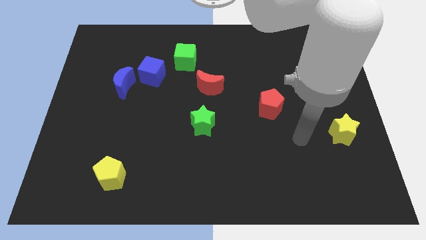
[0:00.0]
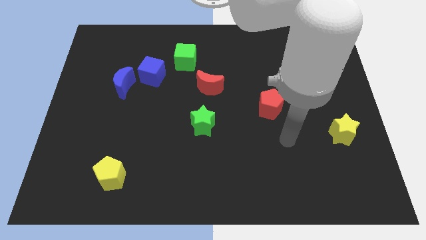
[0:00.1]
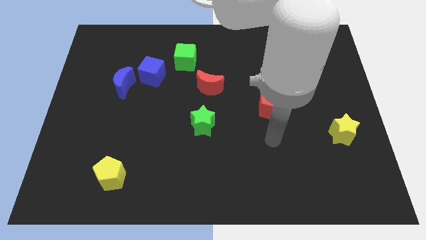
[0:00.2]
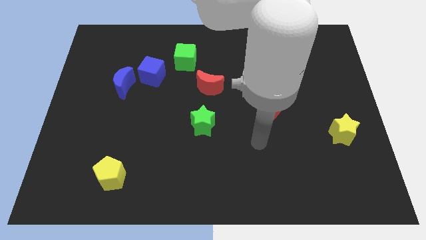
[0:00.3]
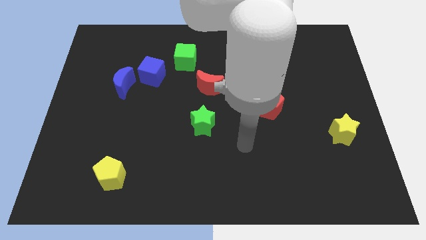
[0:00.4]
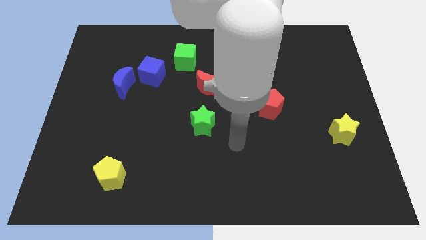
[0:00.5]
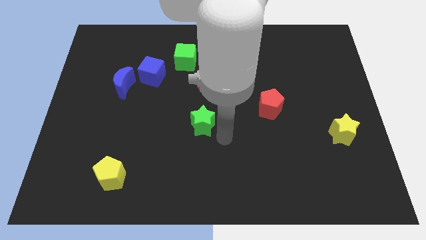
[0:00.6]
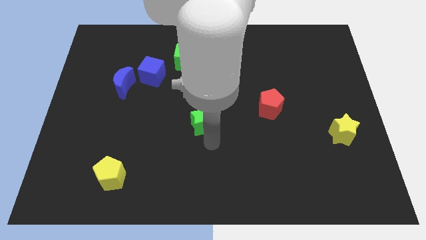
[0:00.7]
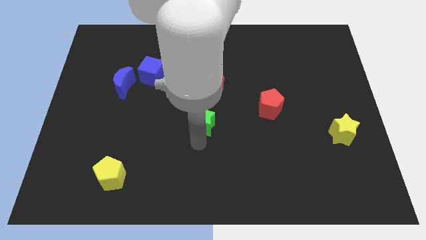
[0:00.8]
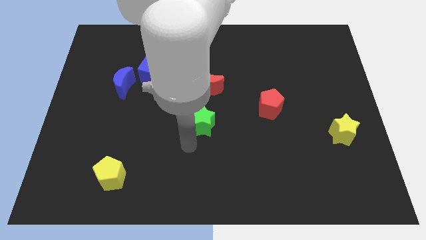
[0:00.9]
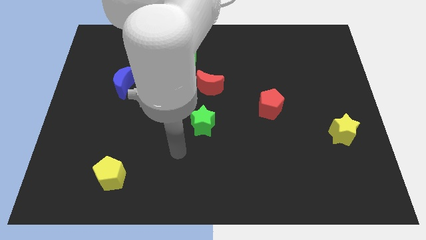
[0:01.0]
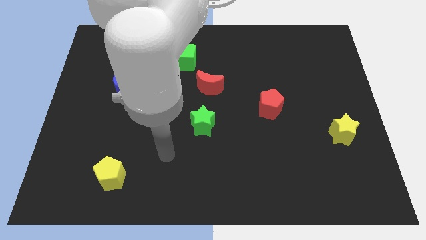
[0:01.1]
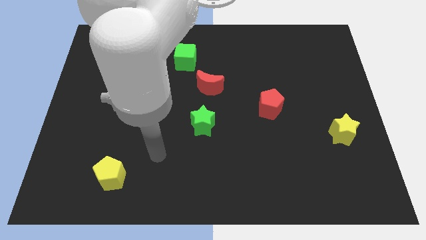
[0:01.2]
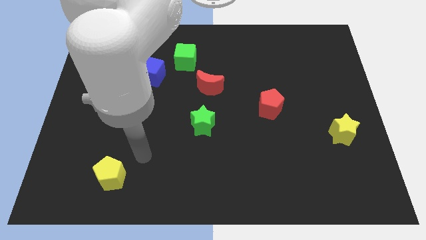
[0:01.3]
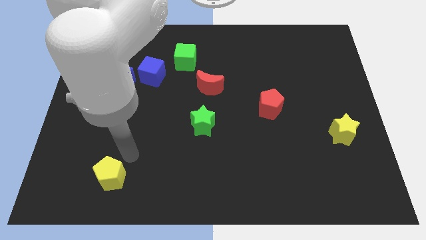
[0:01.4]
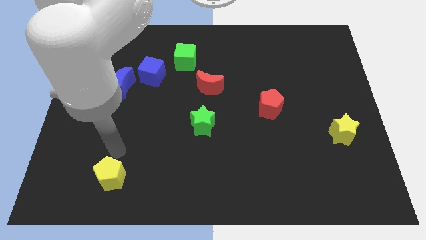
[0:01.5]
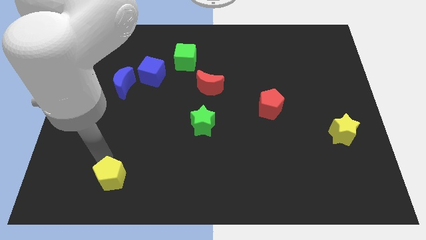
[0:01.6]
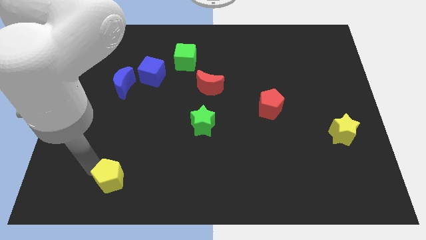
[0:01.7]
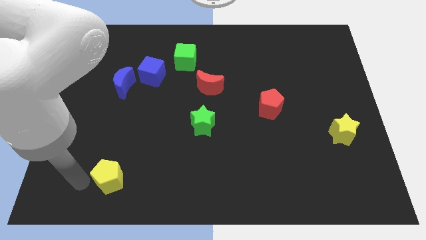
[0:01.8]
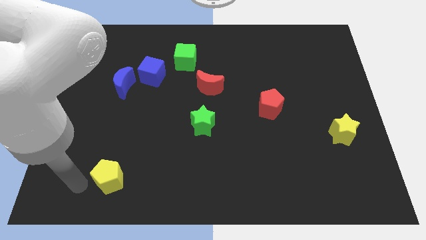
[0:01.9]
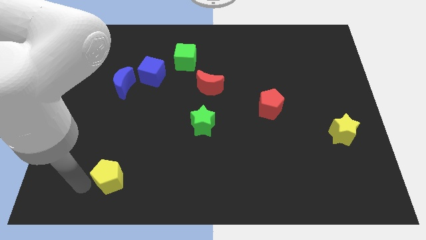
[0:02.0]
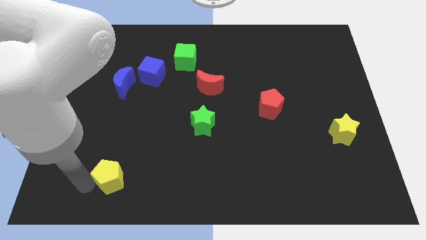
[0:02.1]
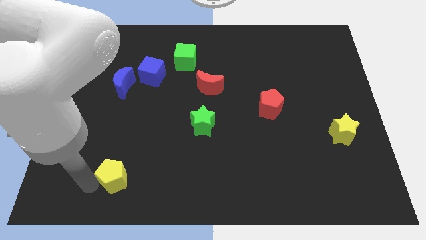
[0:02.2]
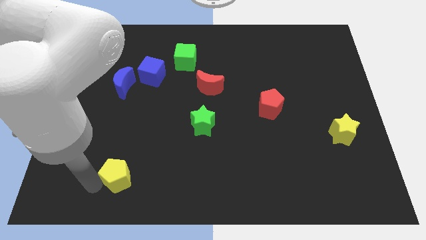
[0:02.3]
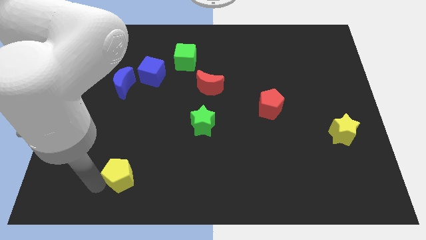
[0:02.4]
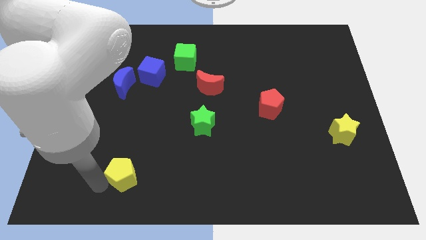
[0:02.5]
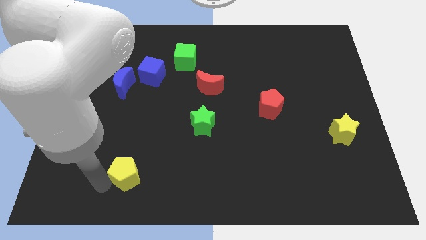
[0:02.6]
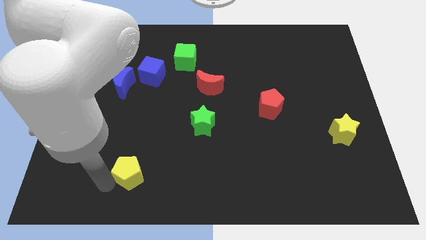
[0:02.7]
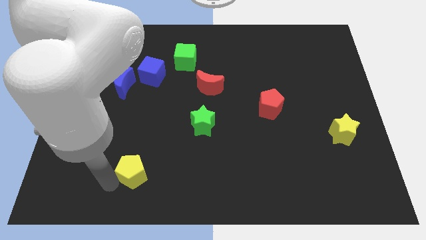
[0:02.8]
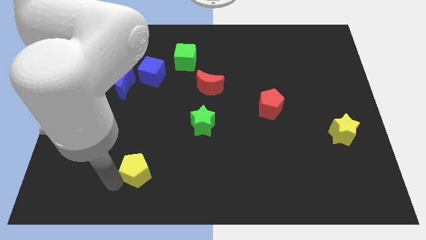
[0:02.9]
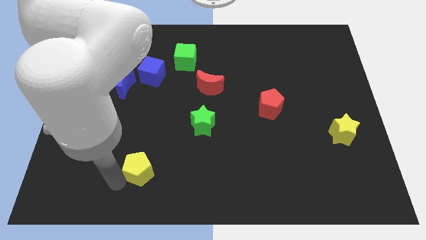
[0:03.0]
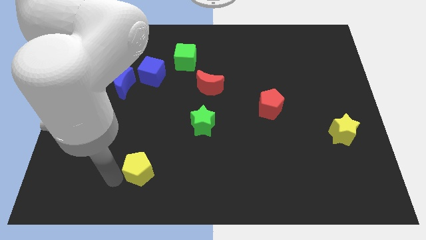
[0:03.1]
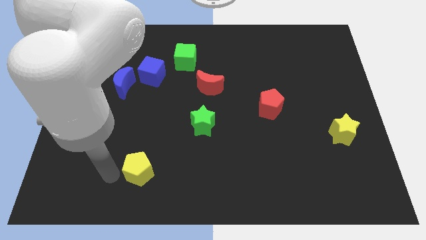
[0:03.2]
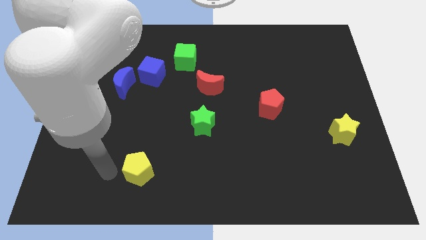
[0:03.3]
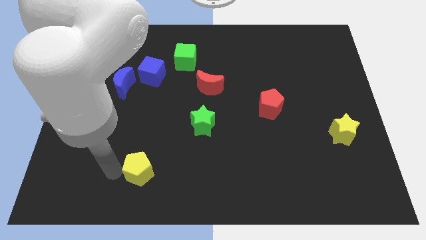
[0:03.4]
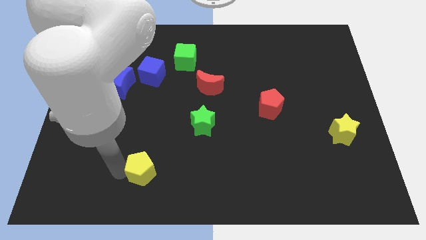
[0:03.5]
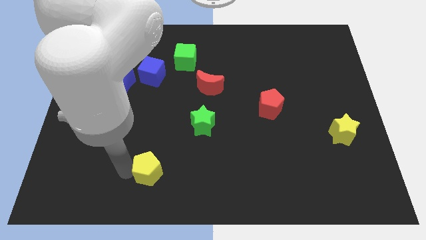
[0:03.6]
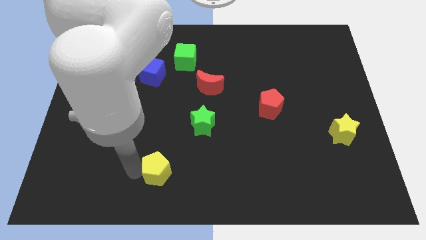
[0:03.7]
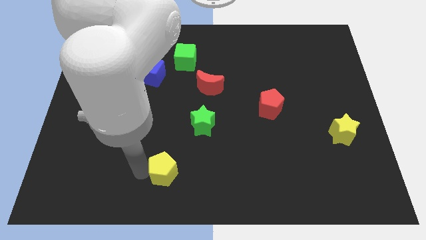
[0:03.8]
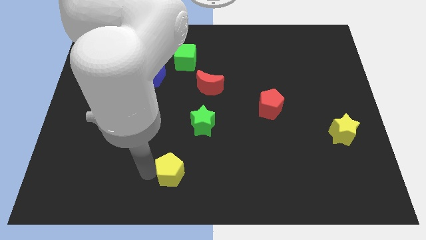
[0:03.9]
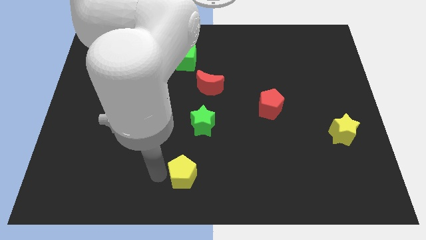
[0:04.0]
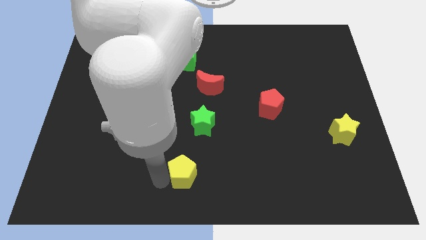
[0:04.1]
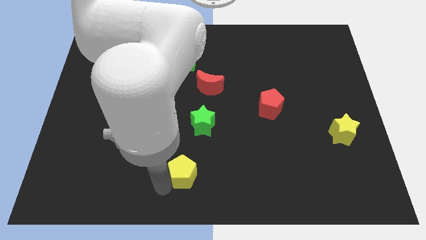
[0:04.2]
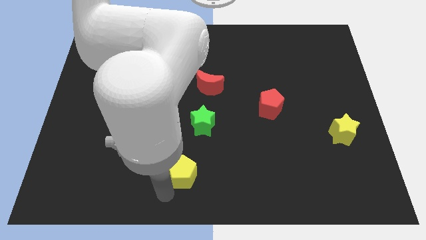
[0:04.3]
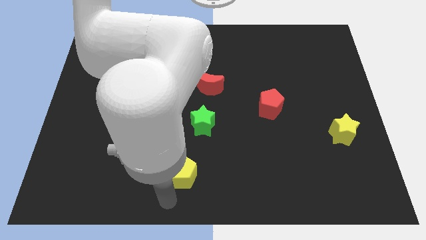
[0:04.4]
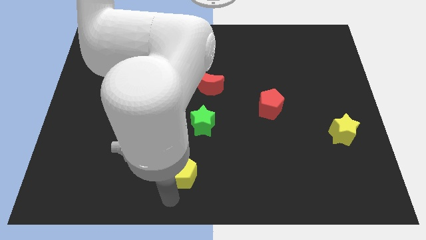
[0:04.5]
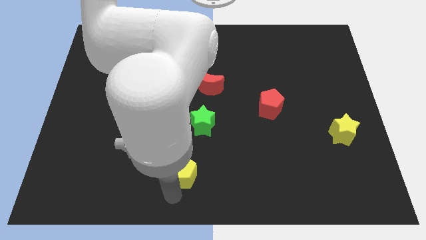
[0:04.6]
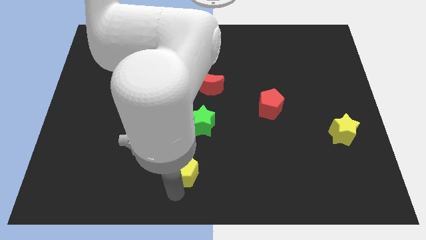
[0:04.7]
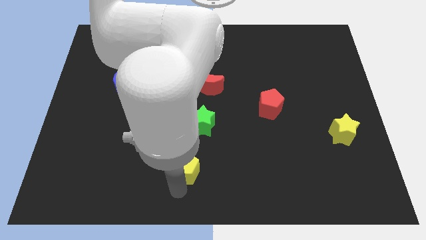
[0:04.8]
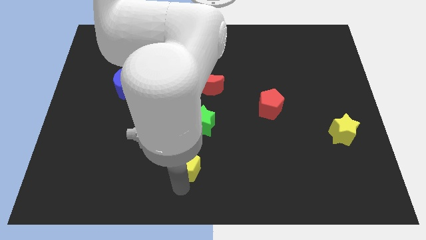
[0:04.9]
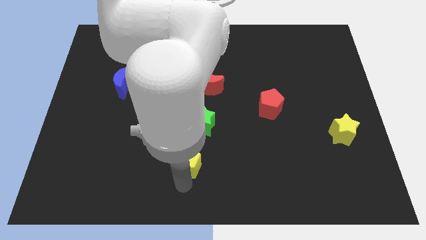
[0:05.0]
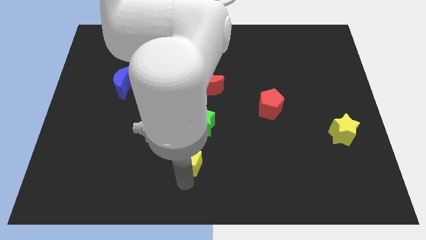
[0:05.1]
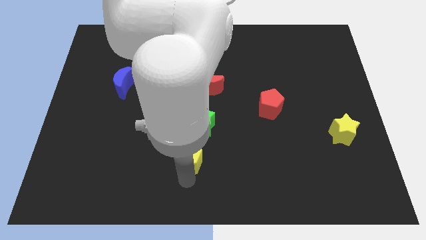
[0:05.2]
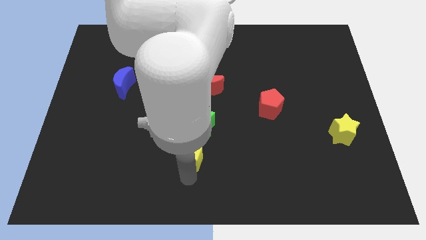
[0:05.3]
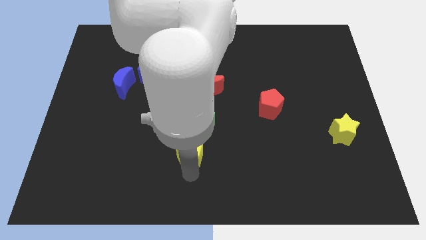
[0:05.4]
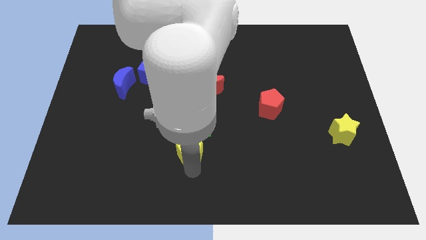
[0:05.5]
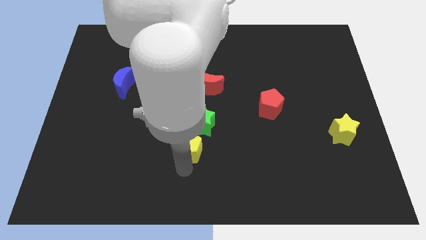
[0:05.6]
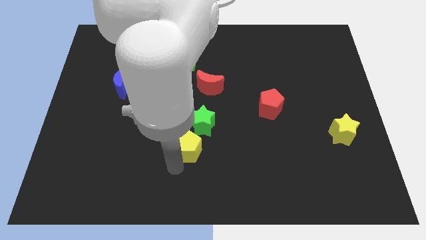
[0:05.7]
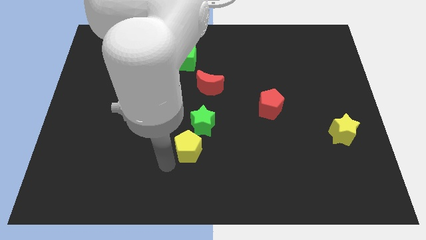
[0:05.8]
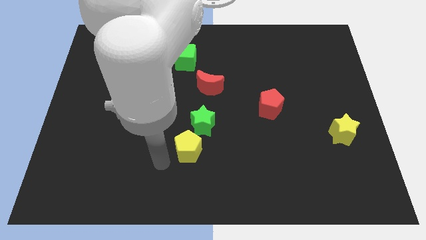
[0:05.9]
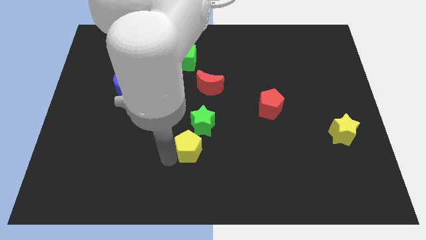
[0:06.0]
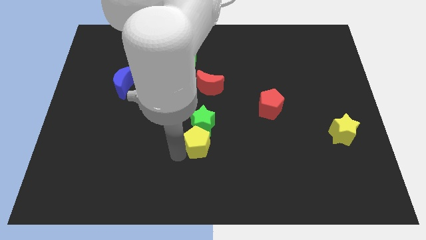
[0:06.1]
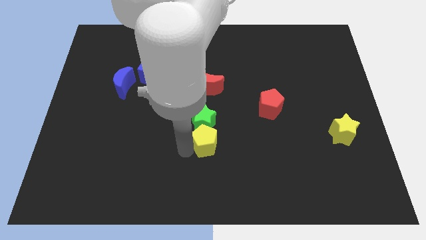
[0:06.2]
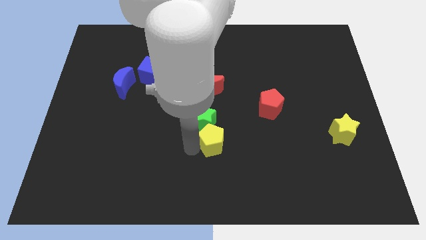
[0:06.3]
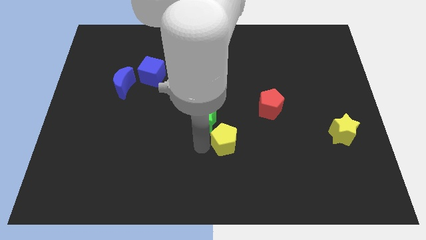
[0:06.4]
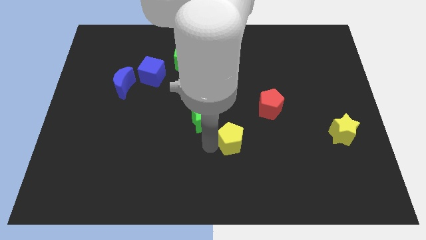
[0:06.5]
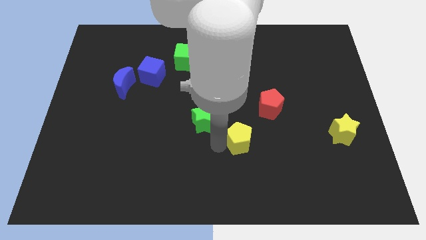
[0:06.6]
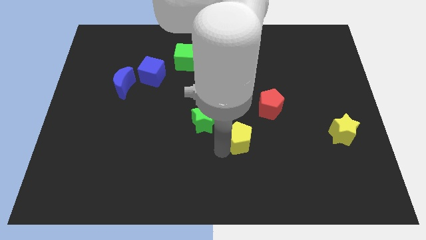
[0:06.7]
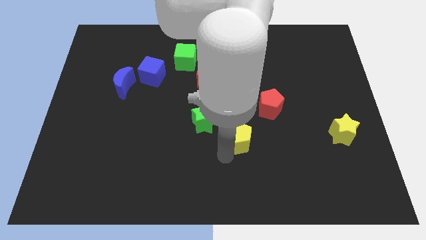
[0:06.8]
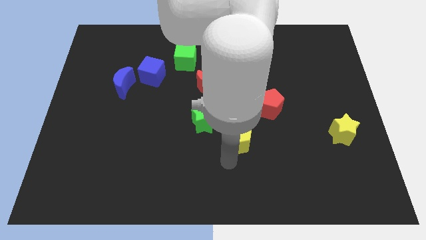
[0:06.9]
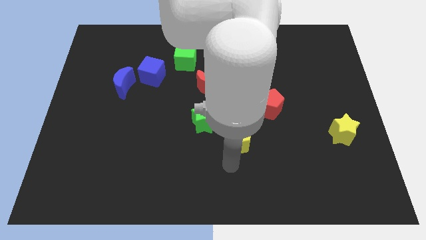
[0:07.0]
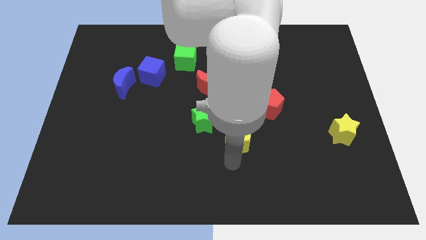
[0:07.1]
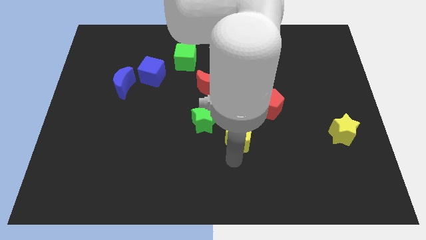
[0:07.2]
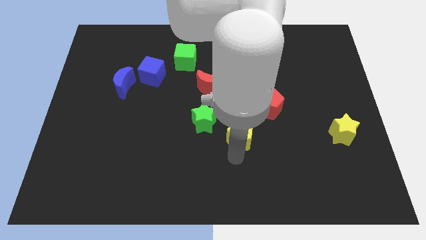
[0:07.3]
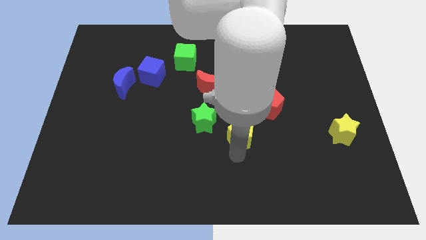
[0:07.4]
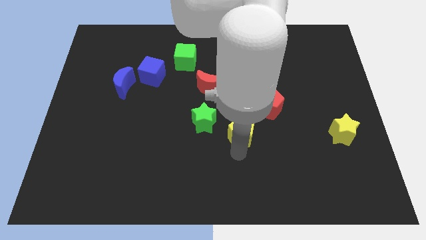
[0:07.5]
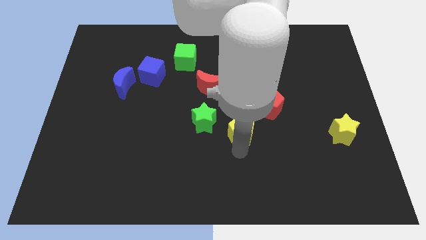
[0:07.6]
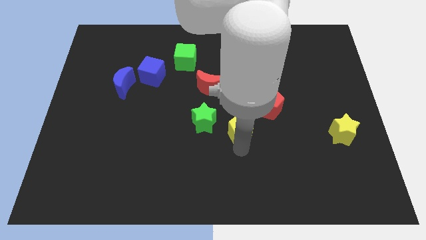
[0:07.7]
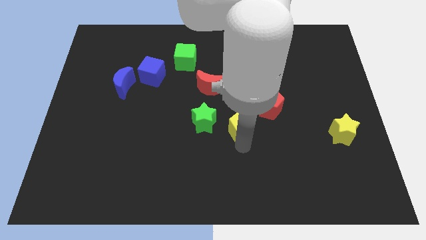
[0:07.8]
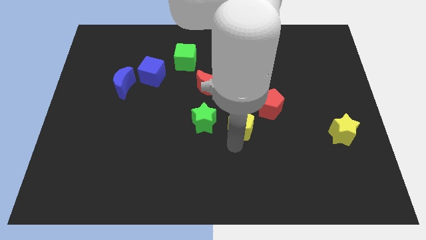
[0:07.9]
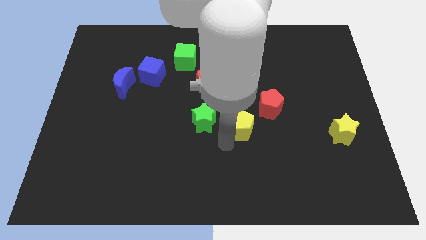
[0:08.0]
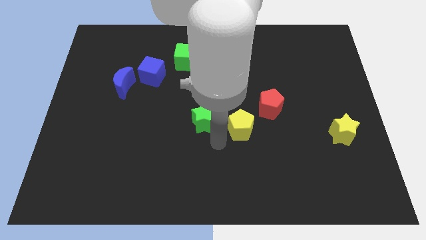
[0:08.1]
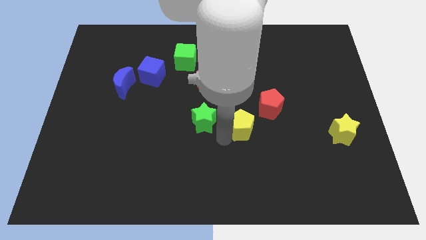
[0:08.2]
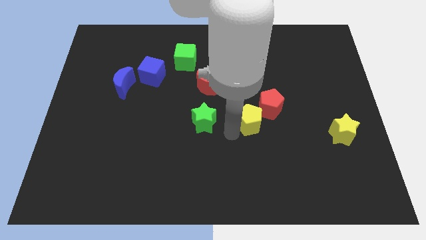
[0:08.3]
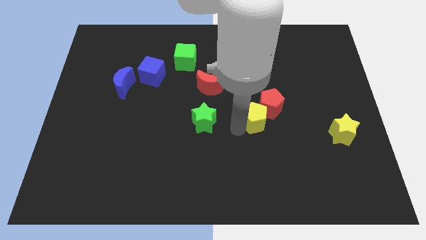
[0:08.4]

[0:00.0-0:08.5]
push the yellow pentagon next to the red pentagon
